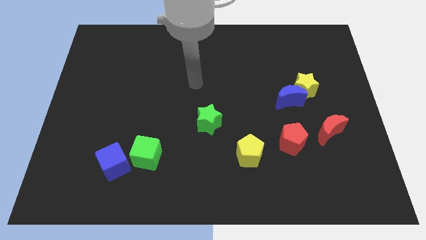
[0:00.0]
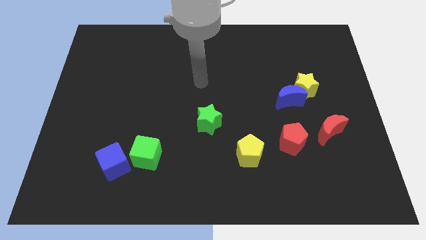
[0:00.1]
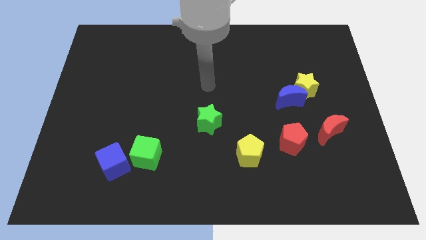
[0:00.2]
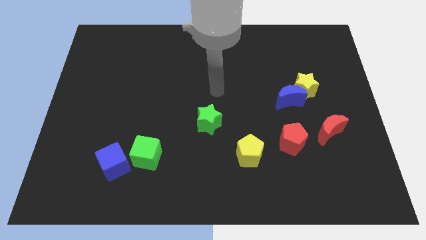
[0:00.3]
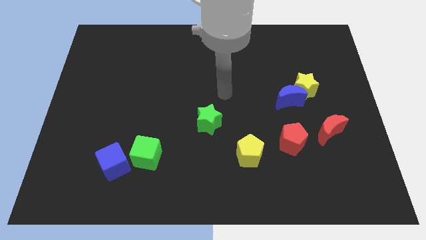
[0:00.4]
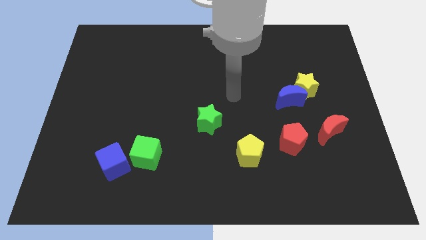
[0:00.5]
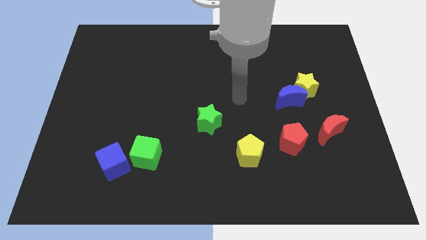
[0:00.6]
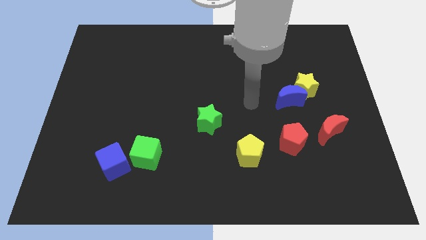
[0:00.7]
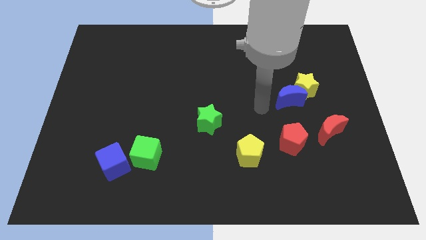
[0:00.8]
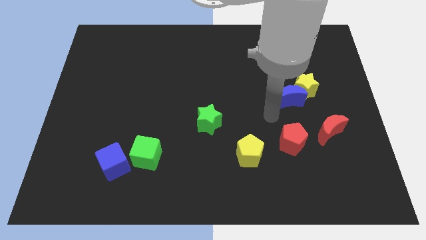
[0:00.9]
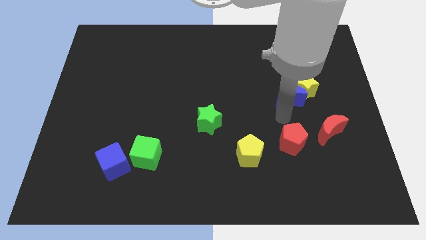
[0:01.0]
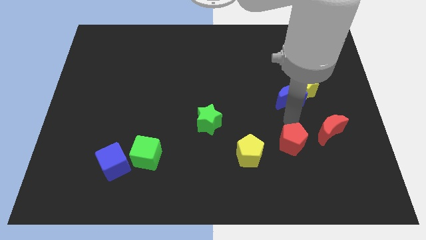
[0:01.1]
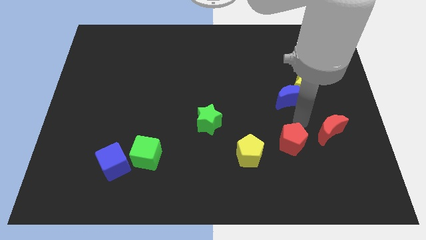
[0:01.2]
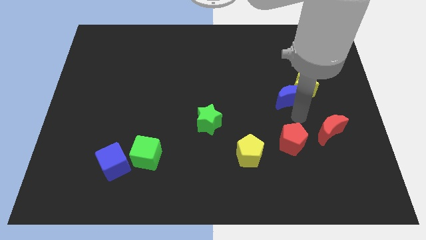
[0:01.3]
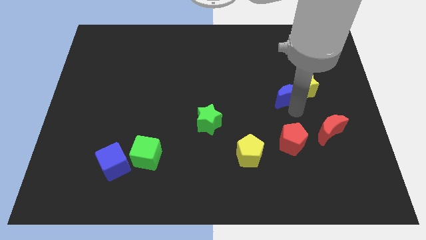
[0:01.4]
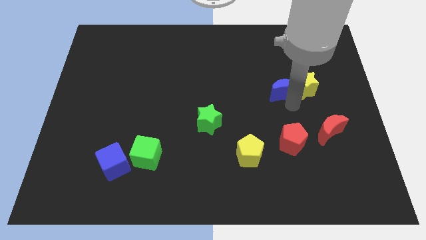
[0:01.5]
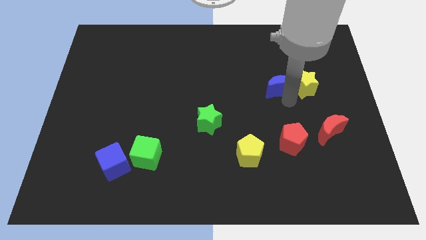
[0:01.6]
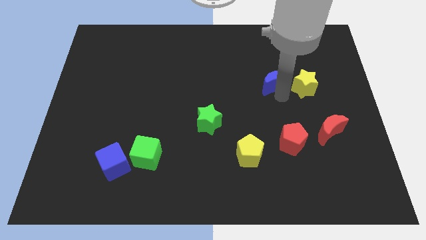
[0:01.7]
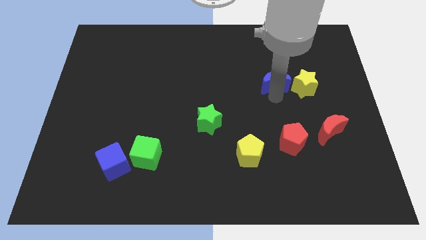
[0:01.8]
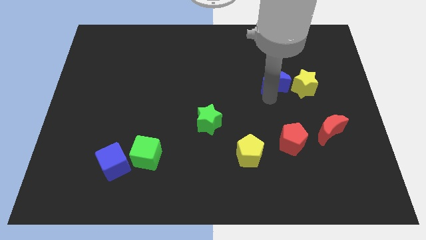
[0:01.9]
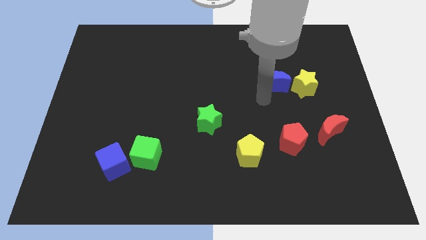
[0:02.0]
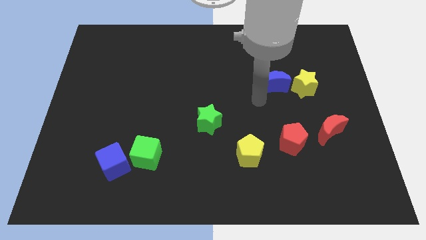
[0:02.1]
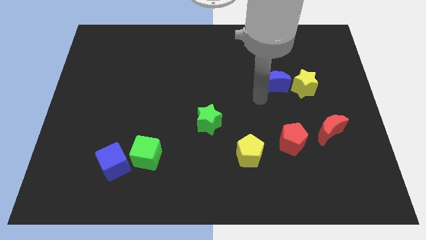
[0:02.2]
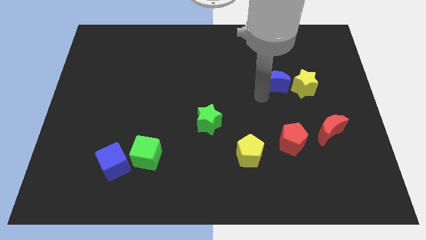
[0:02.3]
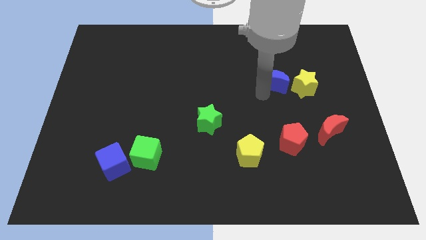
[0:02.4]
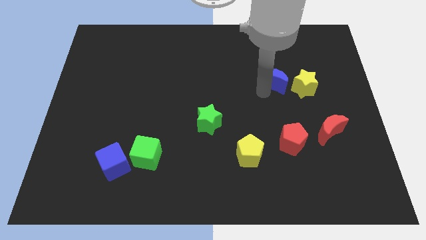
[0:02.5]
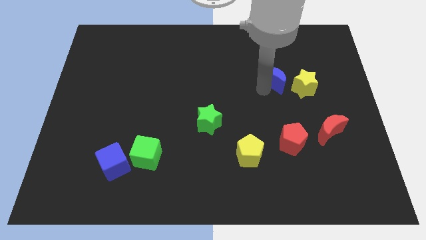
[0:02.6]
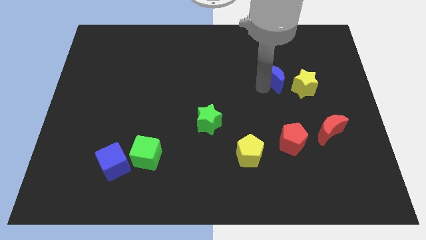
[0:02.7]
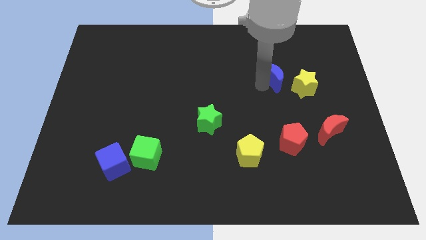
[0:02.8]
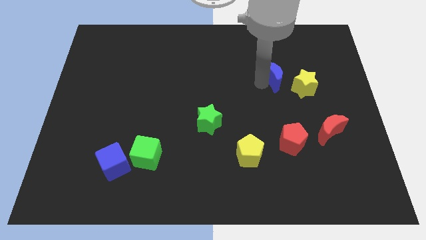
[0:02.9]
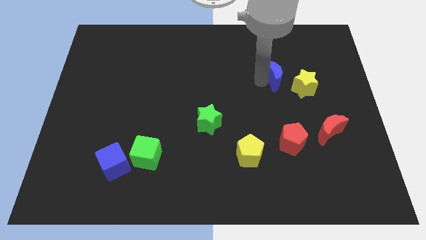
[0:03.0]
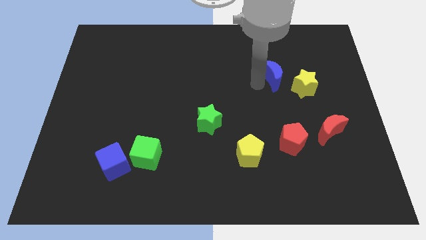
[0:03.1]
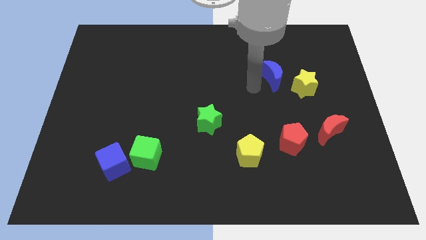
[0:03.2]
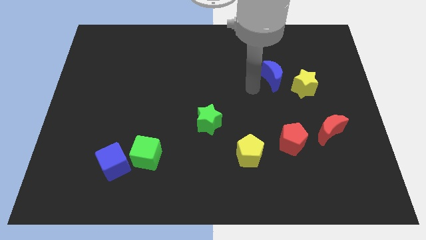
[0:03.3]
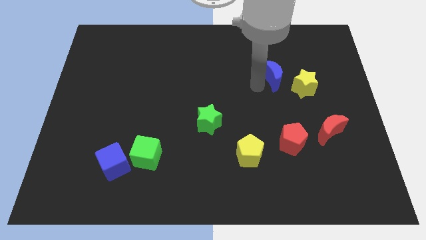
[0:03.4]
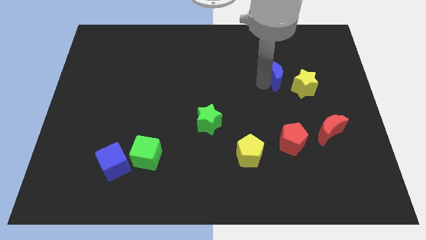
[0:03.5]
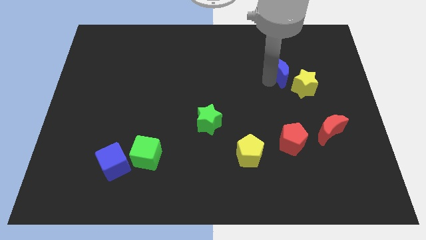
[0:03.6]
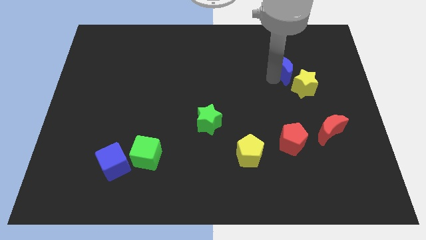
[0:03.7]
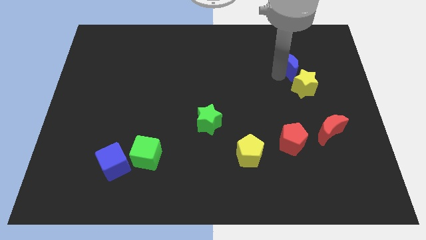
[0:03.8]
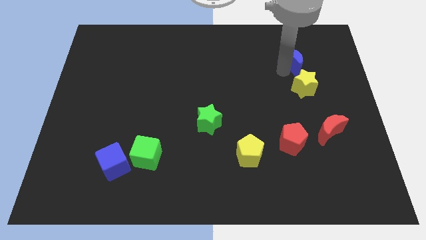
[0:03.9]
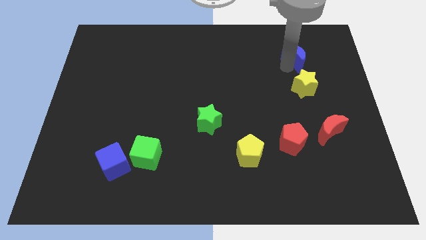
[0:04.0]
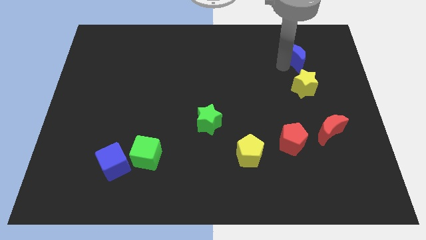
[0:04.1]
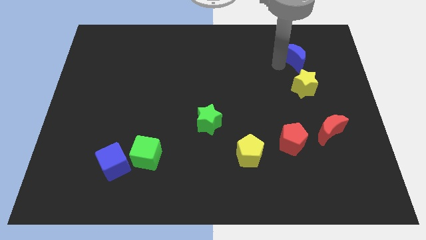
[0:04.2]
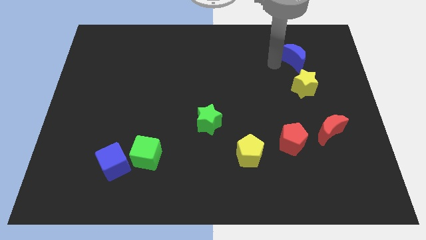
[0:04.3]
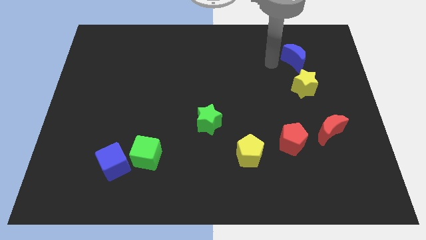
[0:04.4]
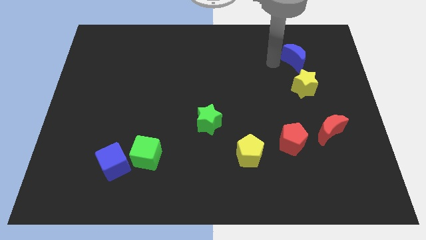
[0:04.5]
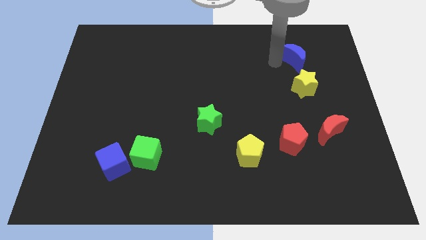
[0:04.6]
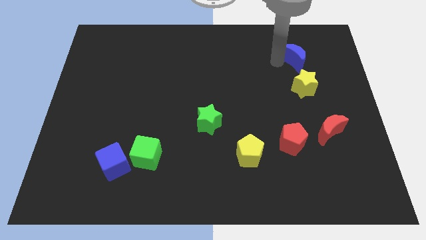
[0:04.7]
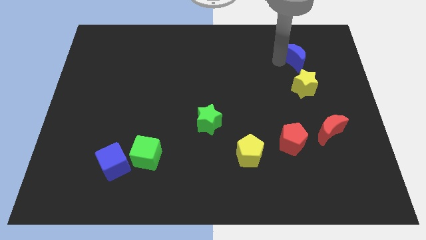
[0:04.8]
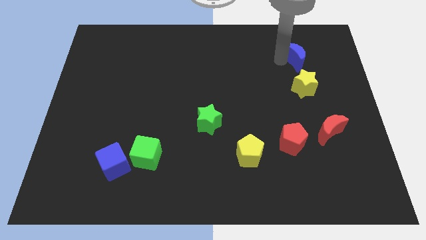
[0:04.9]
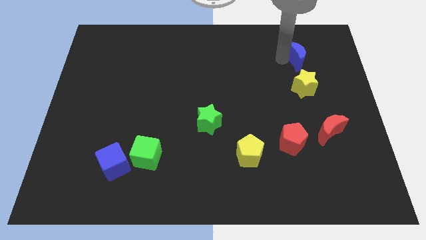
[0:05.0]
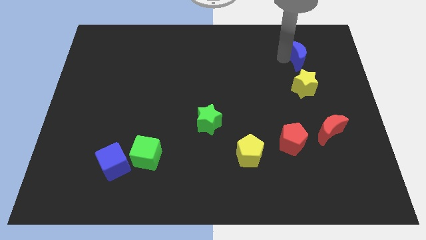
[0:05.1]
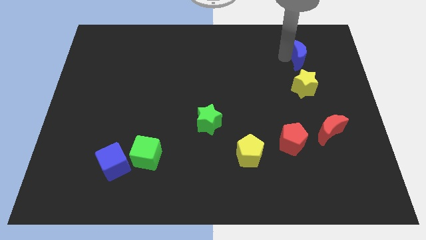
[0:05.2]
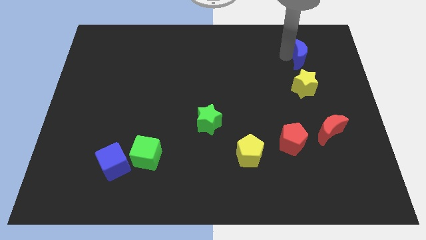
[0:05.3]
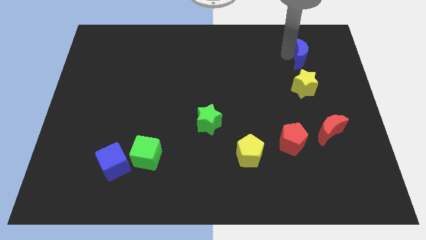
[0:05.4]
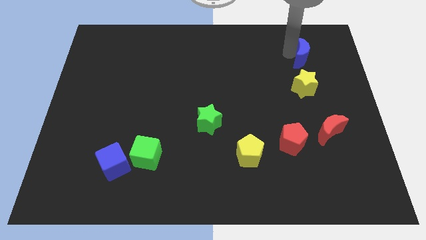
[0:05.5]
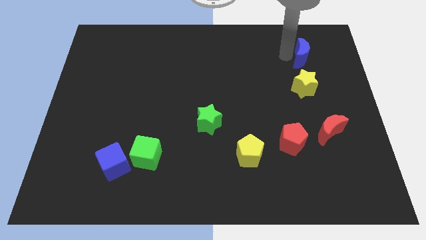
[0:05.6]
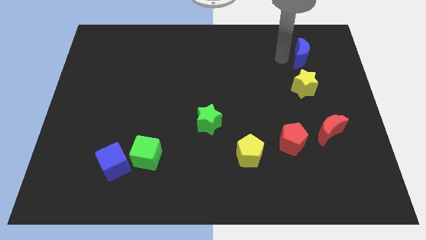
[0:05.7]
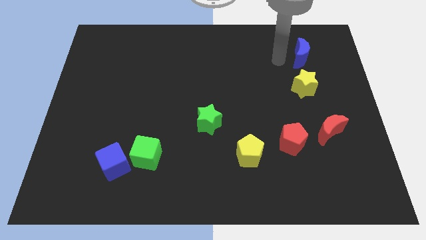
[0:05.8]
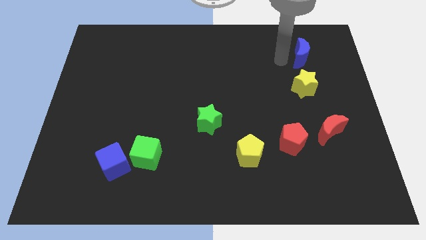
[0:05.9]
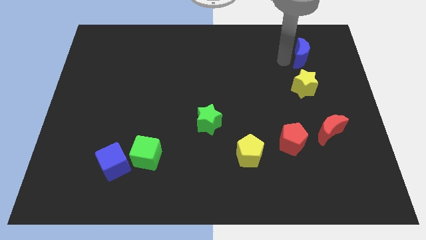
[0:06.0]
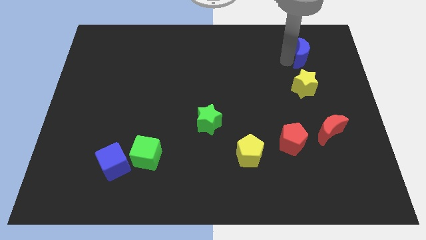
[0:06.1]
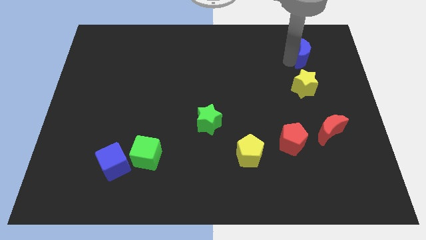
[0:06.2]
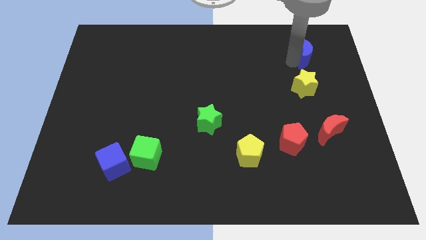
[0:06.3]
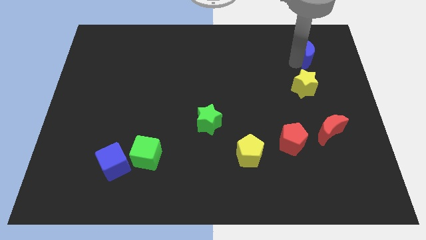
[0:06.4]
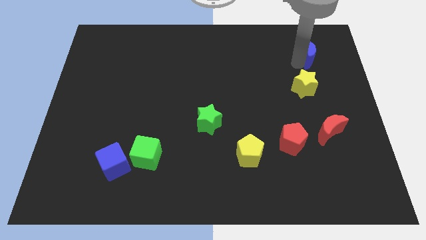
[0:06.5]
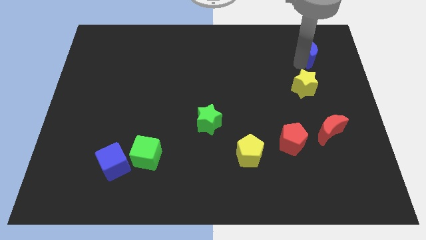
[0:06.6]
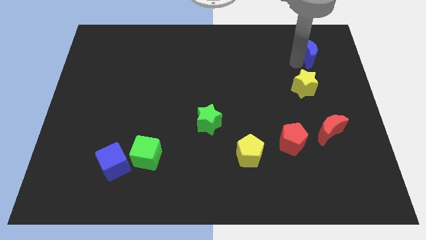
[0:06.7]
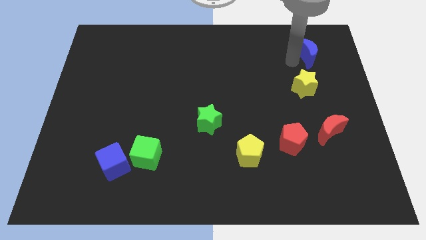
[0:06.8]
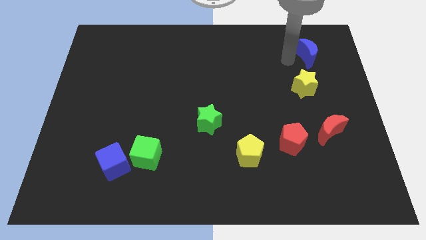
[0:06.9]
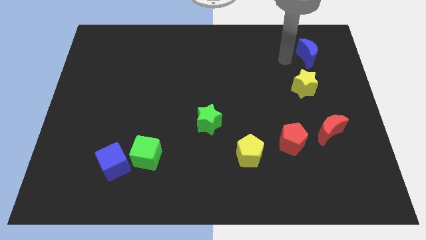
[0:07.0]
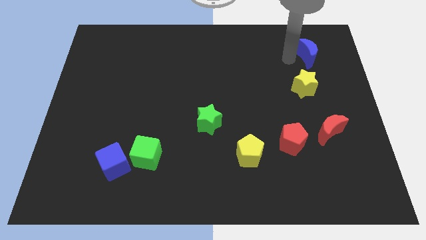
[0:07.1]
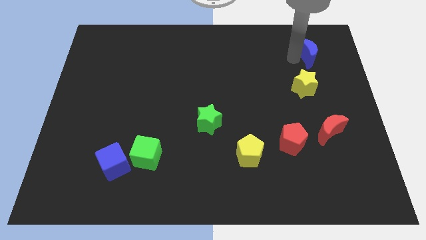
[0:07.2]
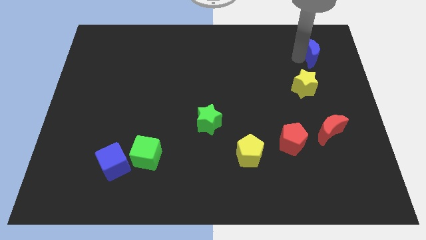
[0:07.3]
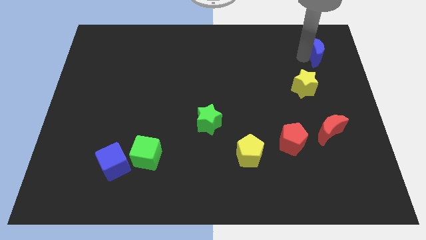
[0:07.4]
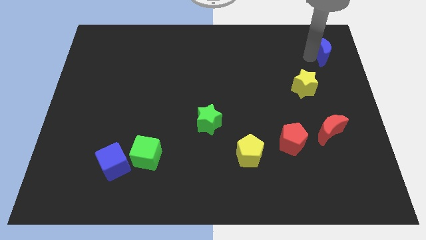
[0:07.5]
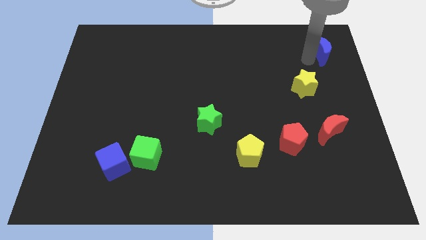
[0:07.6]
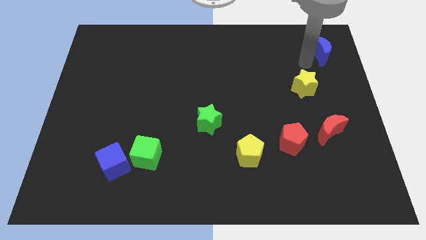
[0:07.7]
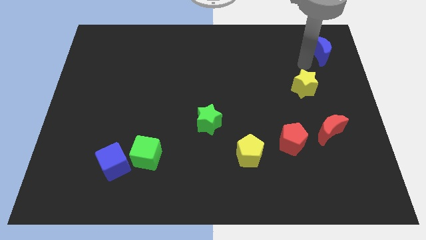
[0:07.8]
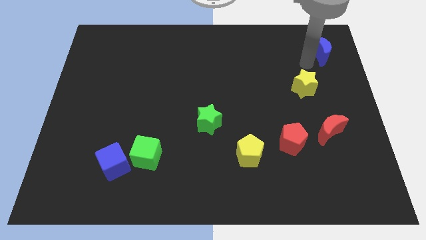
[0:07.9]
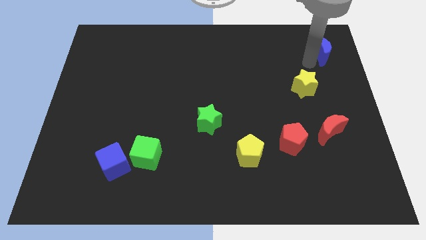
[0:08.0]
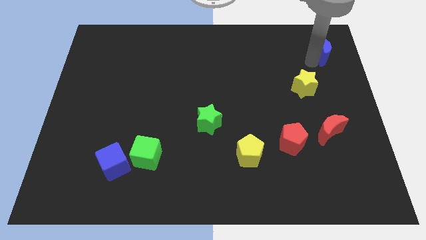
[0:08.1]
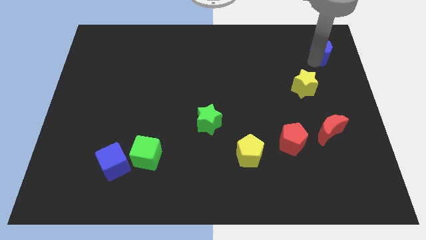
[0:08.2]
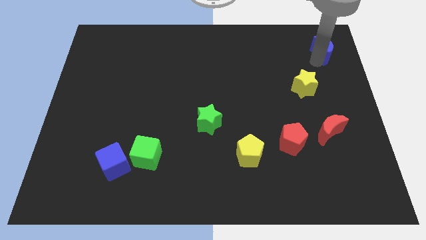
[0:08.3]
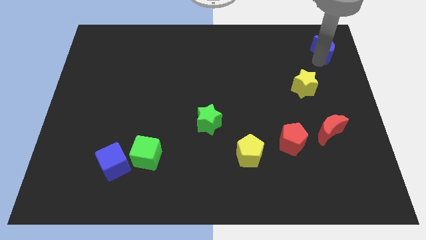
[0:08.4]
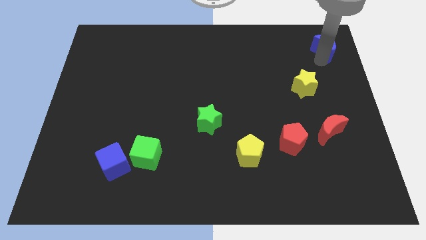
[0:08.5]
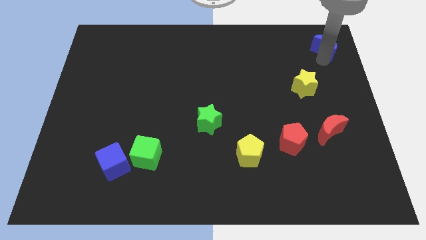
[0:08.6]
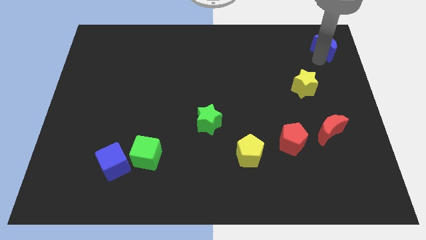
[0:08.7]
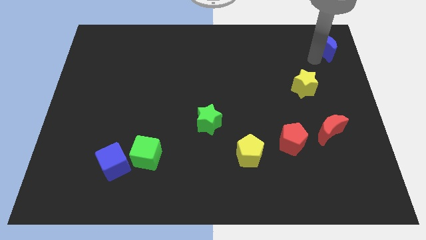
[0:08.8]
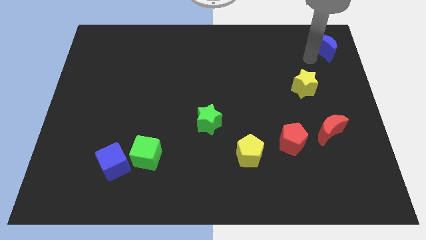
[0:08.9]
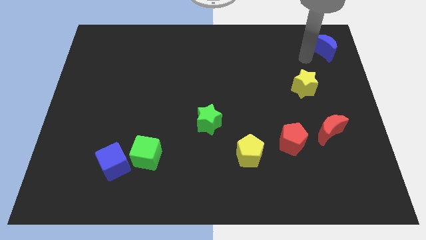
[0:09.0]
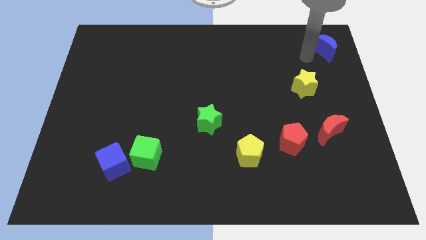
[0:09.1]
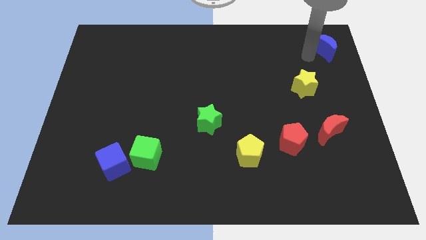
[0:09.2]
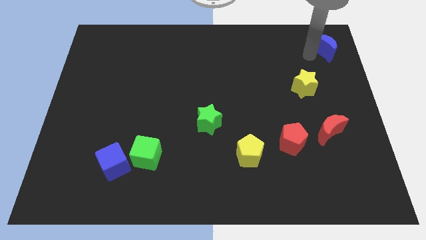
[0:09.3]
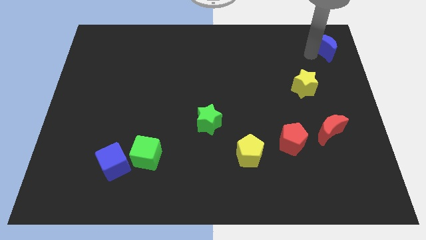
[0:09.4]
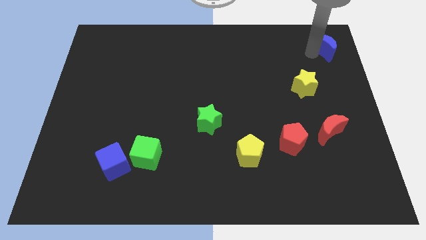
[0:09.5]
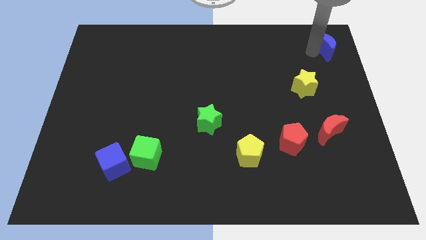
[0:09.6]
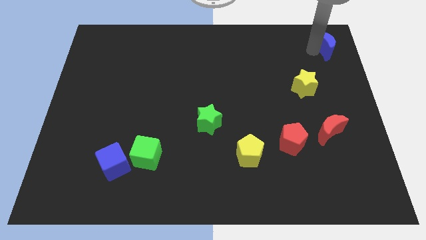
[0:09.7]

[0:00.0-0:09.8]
push the blue moon to the upper right corner
